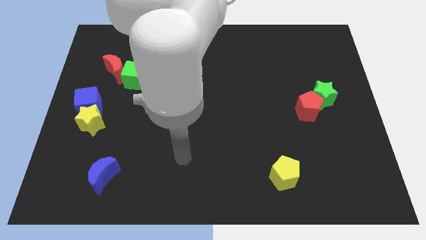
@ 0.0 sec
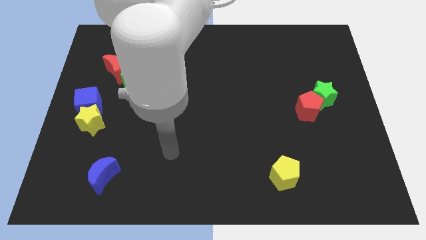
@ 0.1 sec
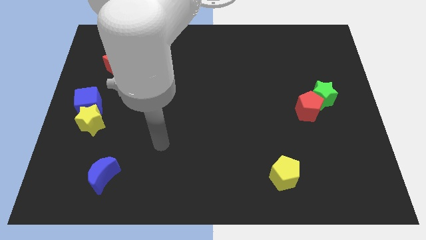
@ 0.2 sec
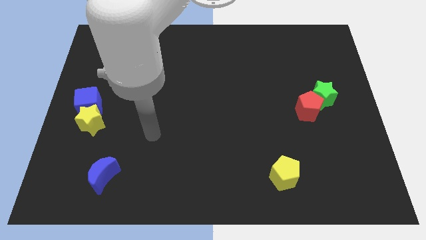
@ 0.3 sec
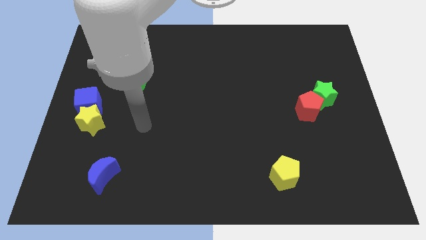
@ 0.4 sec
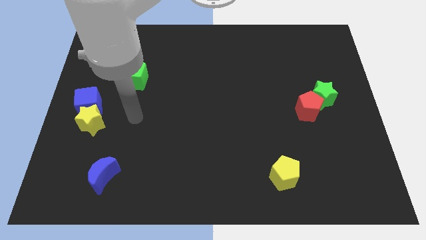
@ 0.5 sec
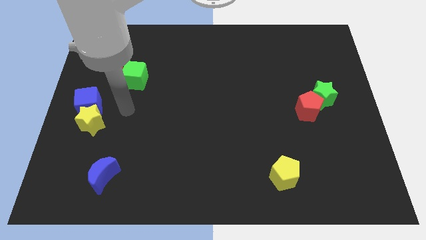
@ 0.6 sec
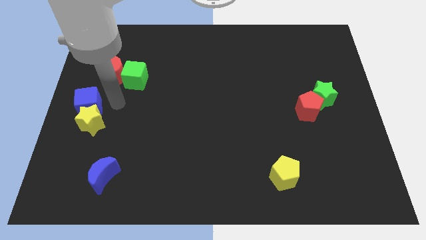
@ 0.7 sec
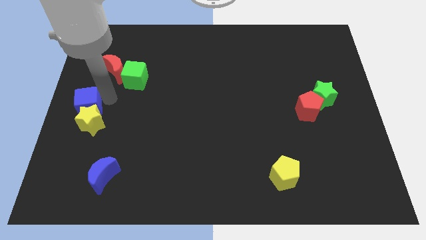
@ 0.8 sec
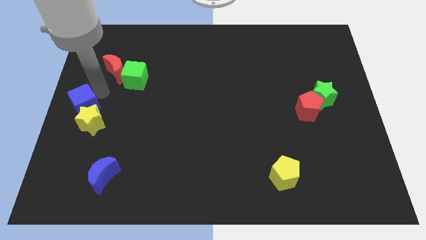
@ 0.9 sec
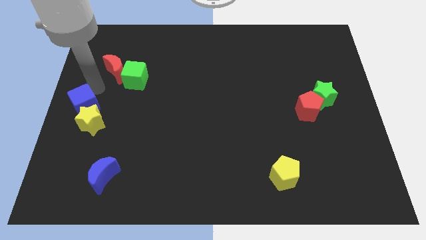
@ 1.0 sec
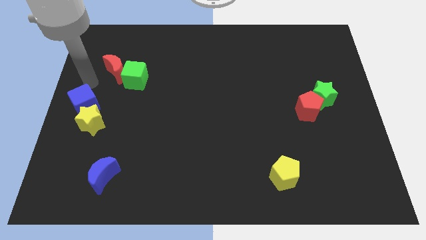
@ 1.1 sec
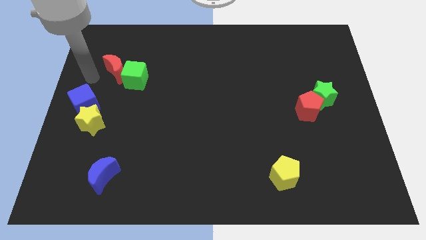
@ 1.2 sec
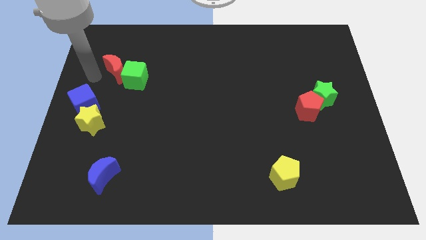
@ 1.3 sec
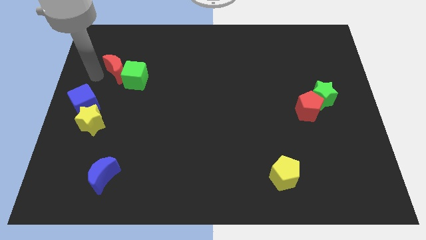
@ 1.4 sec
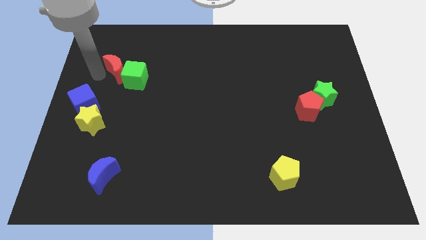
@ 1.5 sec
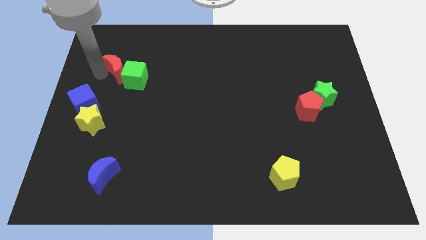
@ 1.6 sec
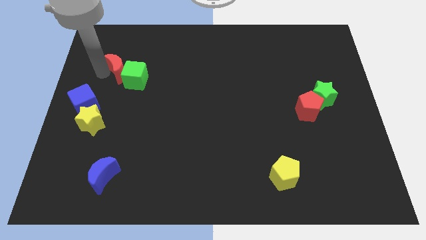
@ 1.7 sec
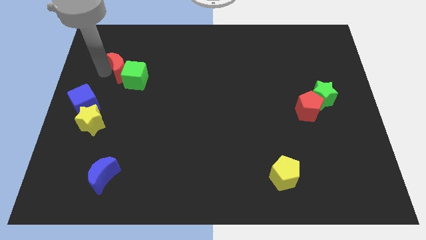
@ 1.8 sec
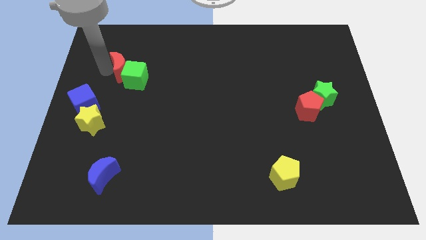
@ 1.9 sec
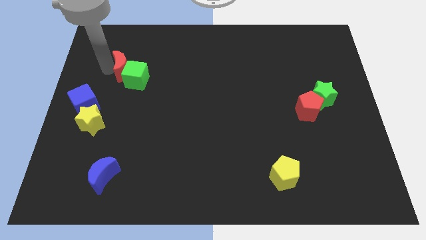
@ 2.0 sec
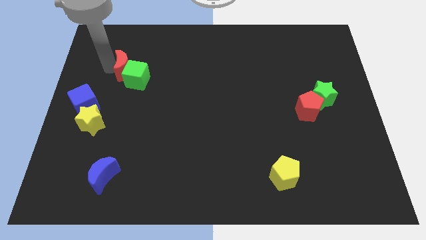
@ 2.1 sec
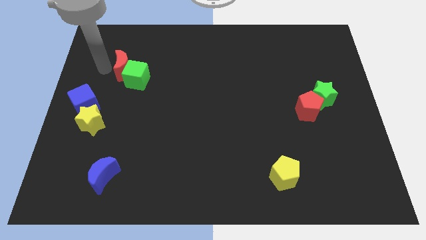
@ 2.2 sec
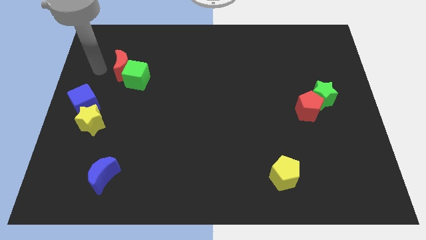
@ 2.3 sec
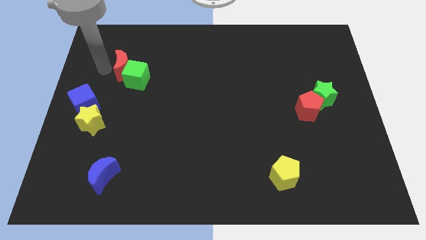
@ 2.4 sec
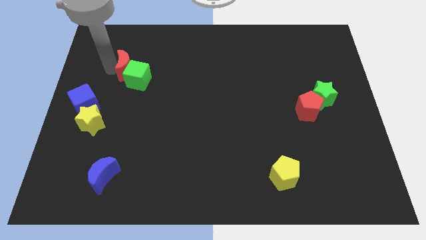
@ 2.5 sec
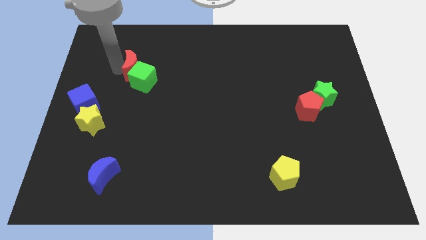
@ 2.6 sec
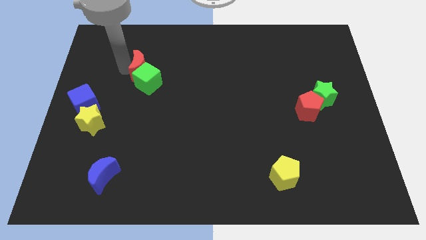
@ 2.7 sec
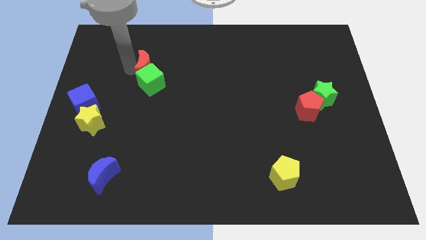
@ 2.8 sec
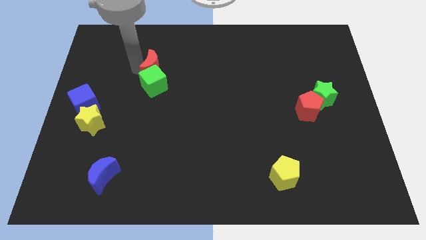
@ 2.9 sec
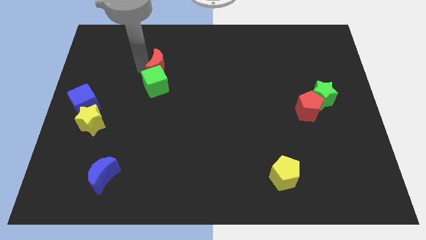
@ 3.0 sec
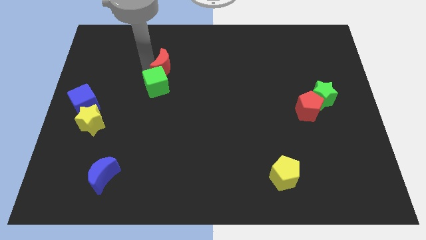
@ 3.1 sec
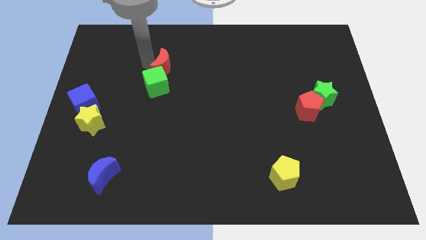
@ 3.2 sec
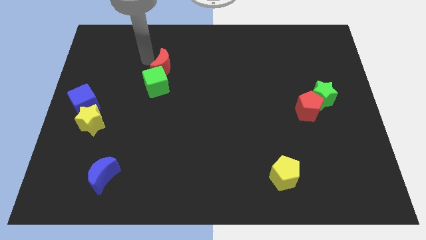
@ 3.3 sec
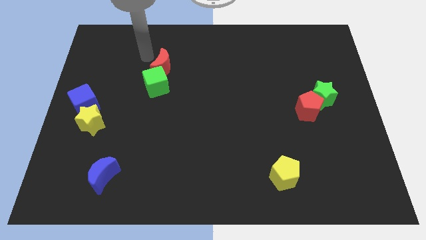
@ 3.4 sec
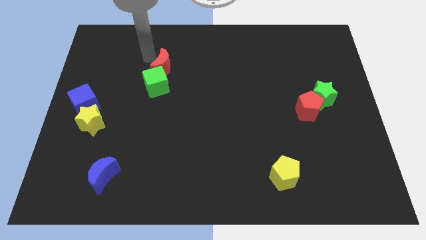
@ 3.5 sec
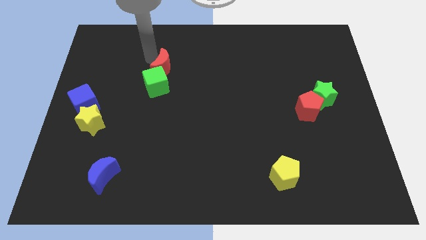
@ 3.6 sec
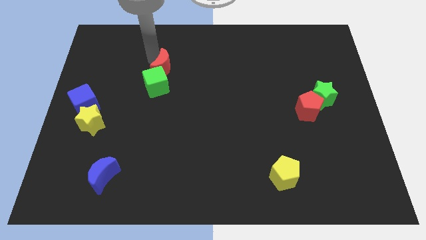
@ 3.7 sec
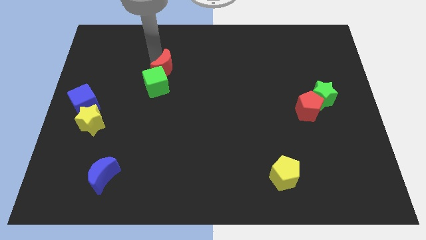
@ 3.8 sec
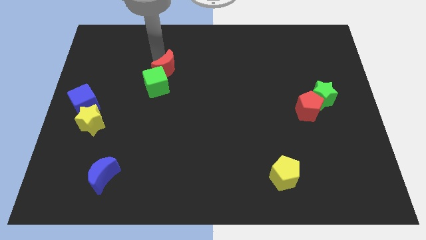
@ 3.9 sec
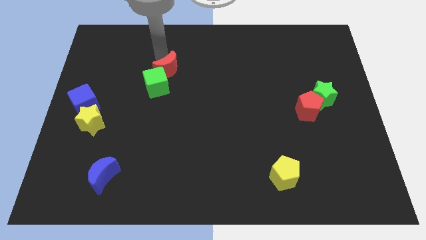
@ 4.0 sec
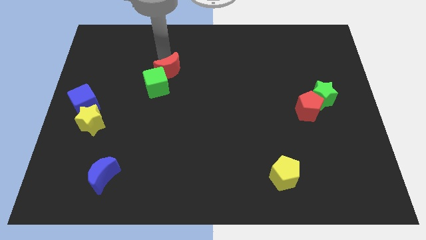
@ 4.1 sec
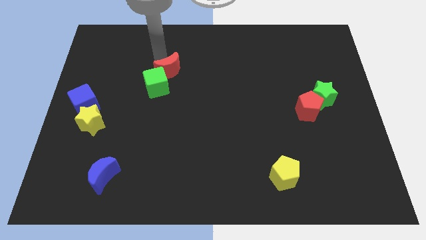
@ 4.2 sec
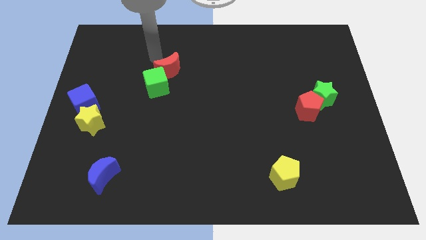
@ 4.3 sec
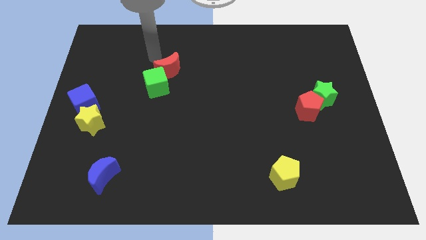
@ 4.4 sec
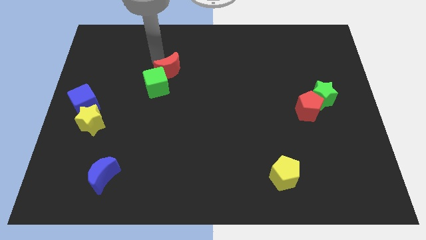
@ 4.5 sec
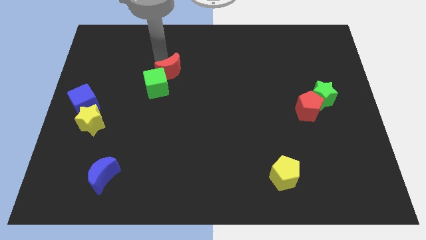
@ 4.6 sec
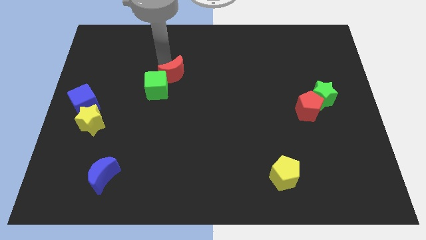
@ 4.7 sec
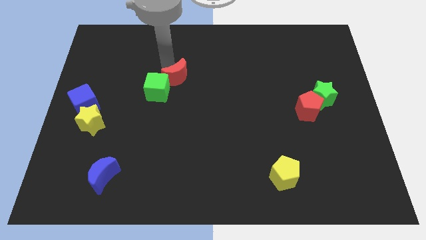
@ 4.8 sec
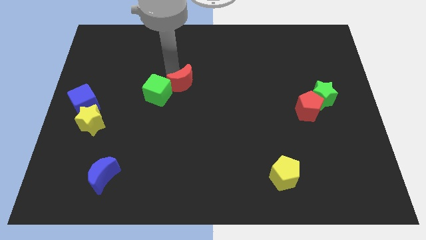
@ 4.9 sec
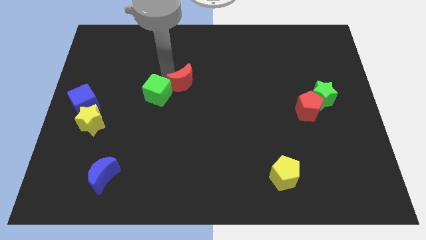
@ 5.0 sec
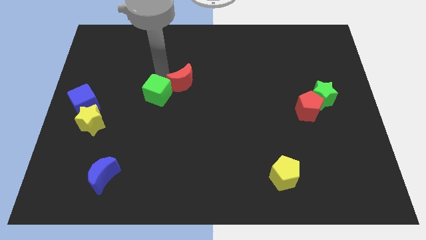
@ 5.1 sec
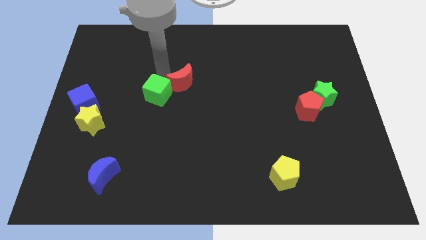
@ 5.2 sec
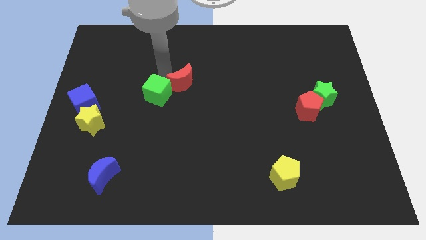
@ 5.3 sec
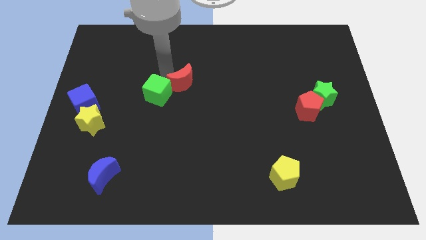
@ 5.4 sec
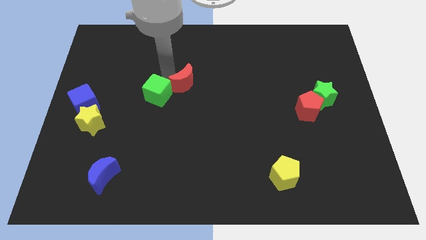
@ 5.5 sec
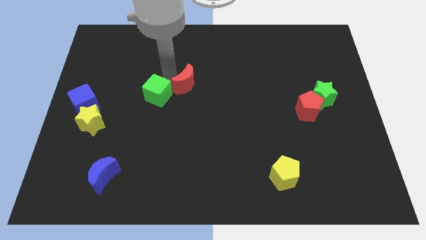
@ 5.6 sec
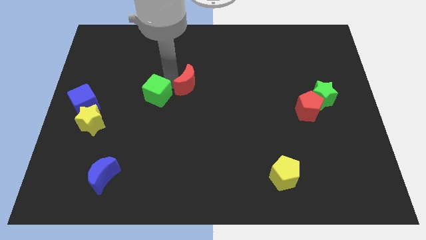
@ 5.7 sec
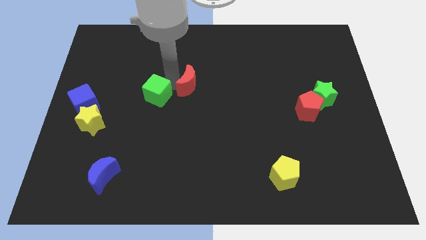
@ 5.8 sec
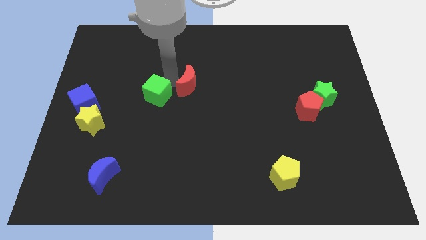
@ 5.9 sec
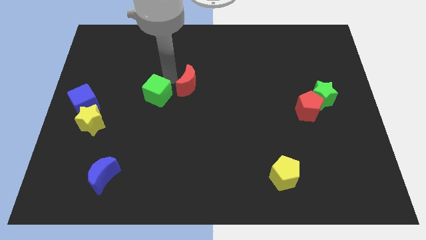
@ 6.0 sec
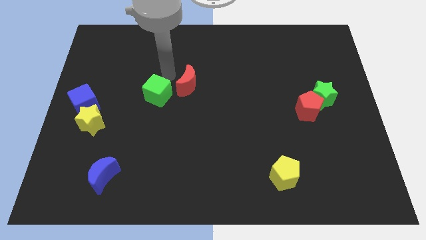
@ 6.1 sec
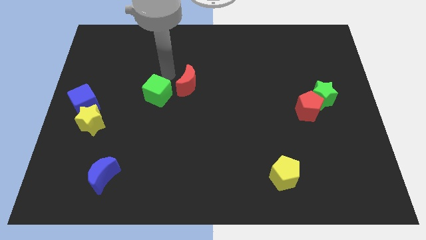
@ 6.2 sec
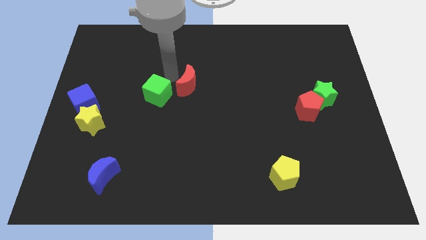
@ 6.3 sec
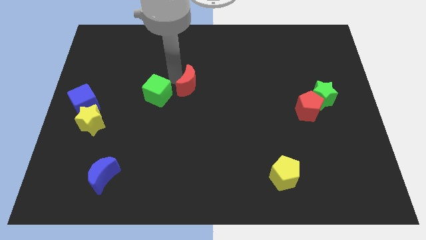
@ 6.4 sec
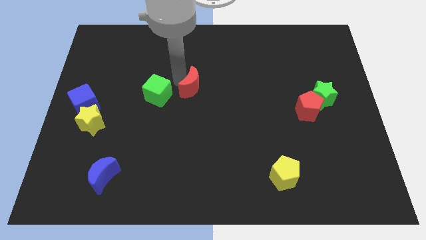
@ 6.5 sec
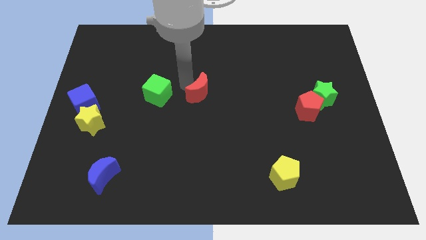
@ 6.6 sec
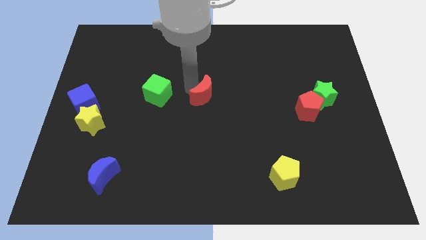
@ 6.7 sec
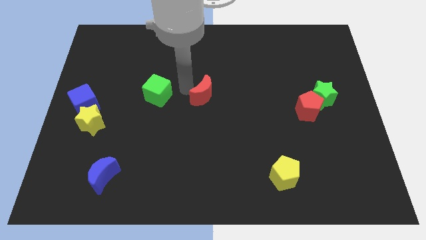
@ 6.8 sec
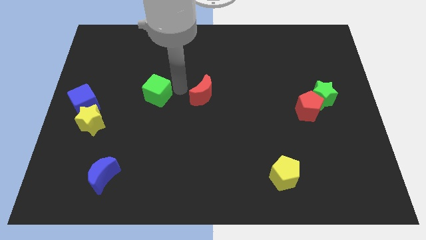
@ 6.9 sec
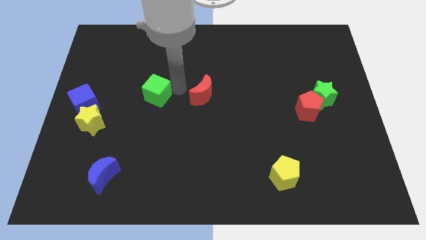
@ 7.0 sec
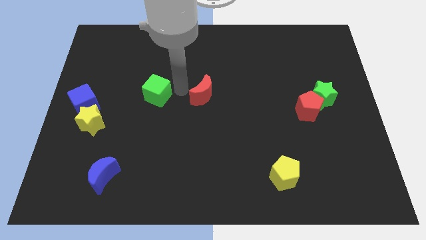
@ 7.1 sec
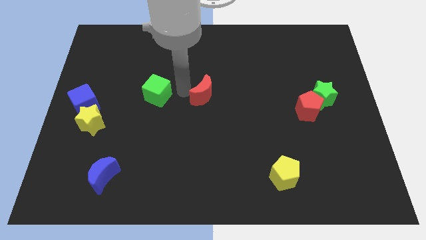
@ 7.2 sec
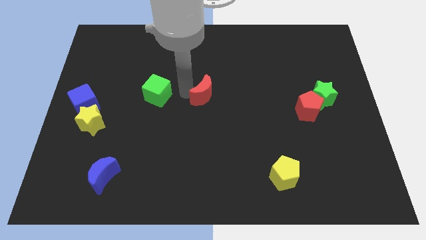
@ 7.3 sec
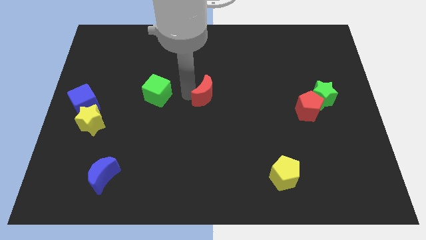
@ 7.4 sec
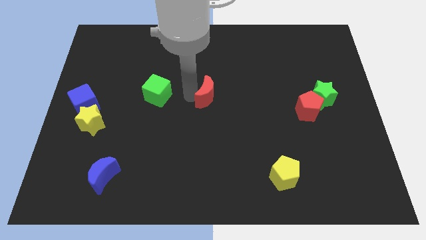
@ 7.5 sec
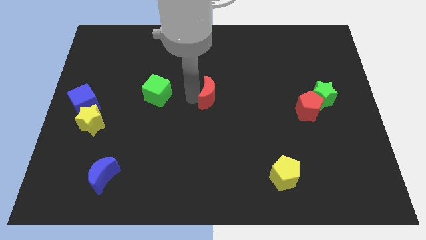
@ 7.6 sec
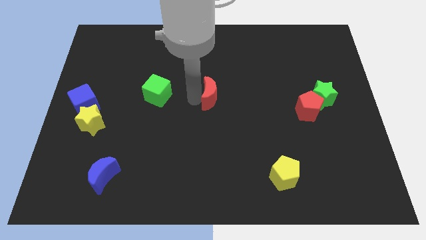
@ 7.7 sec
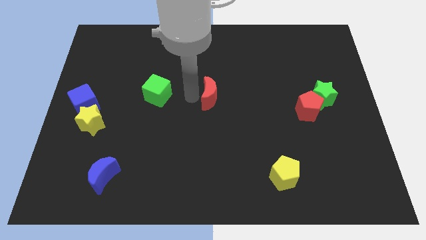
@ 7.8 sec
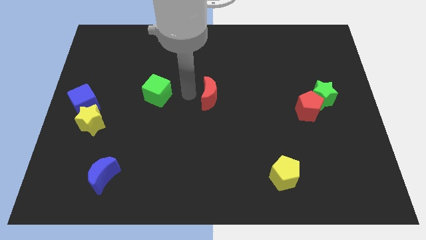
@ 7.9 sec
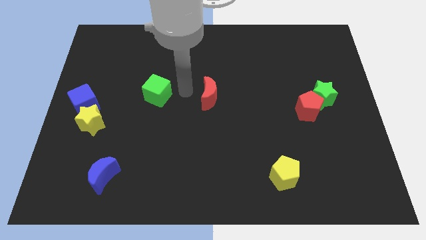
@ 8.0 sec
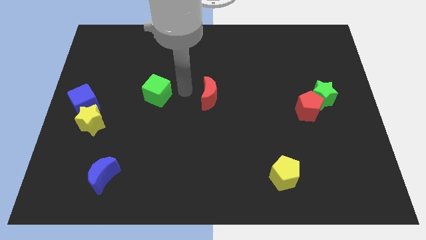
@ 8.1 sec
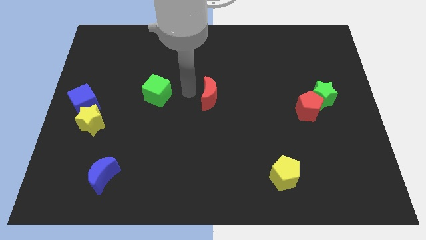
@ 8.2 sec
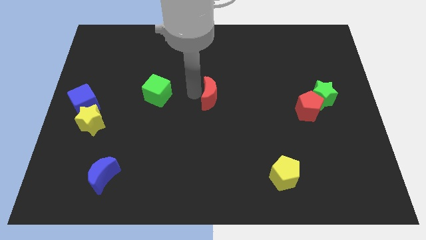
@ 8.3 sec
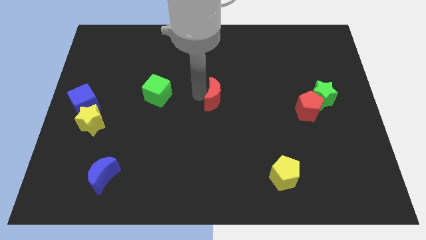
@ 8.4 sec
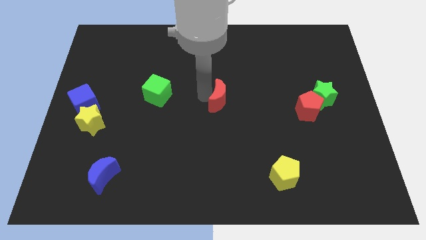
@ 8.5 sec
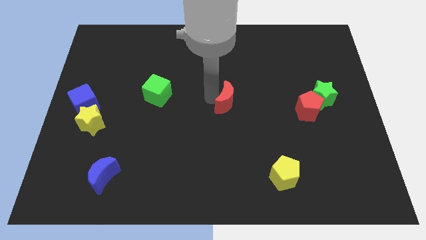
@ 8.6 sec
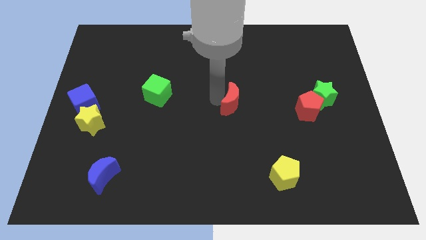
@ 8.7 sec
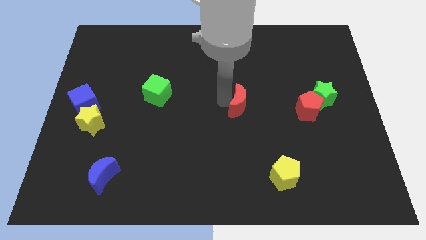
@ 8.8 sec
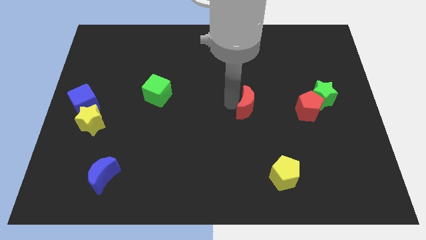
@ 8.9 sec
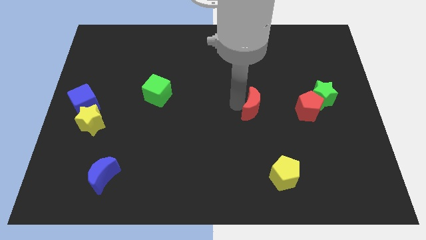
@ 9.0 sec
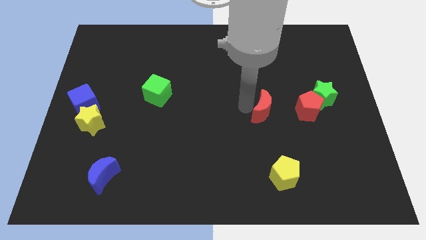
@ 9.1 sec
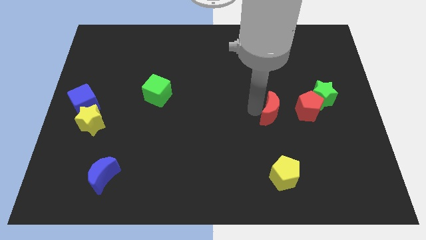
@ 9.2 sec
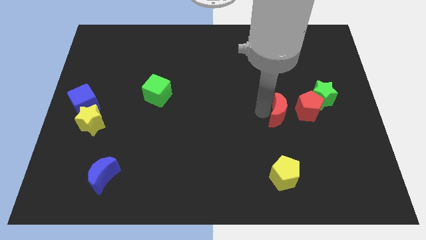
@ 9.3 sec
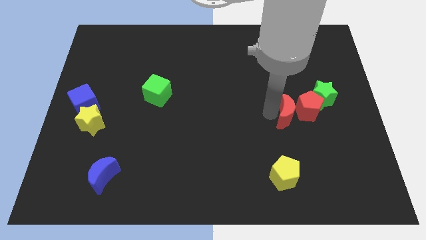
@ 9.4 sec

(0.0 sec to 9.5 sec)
move the red moon diagonally down and to the left of the green star
